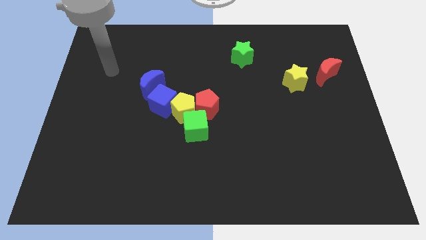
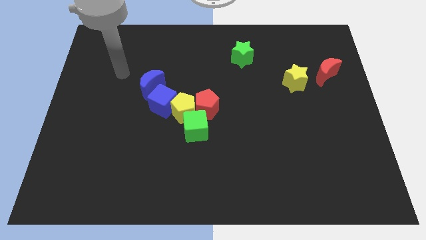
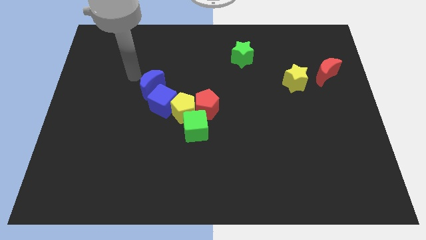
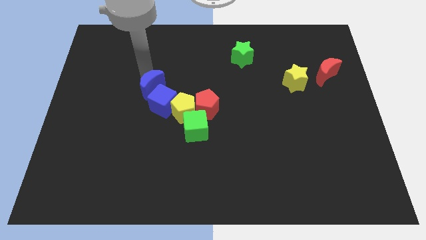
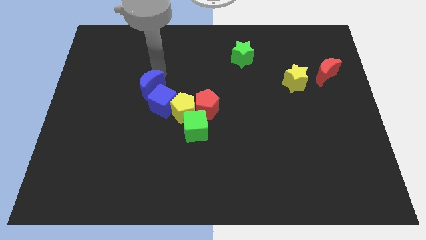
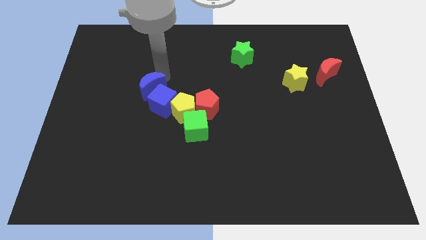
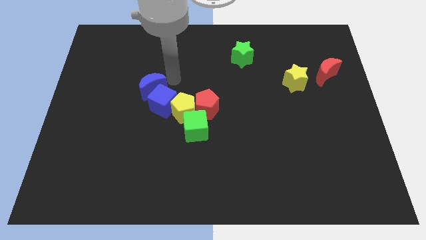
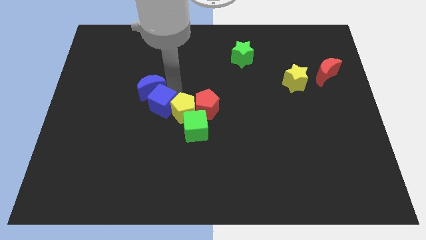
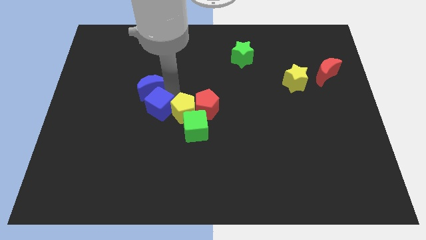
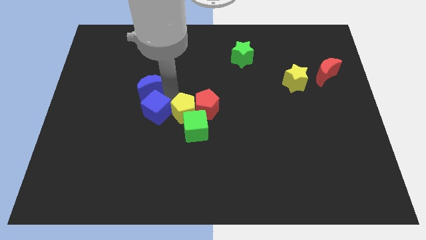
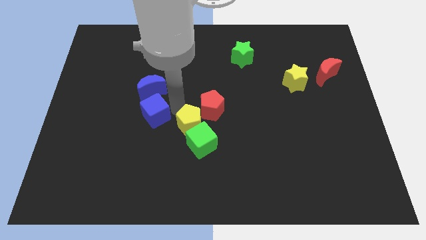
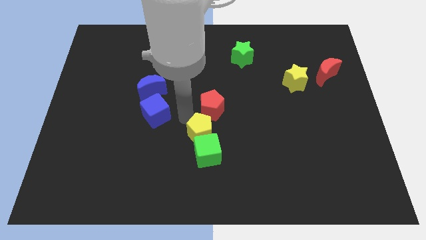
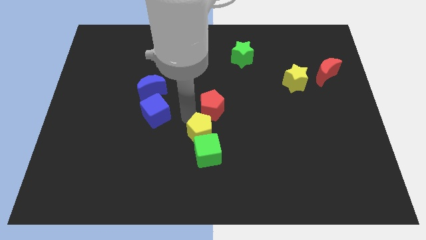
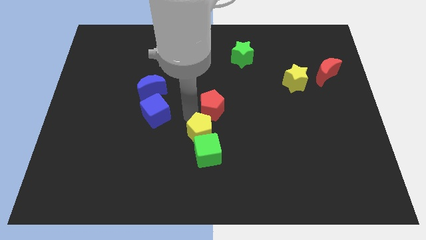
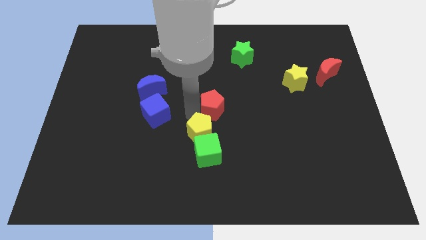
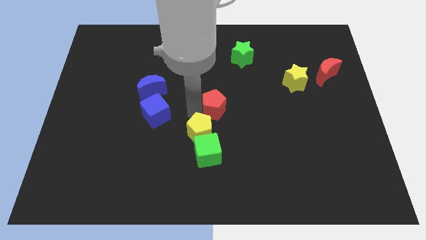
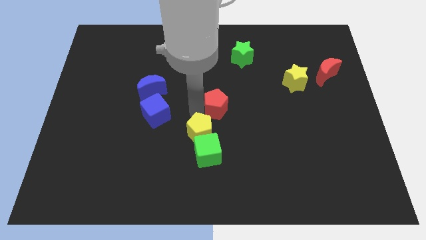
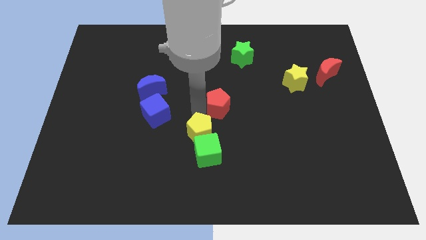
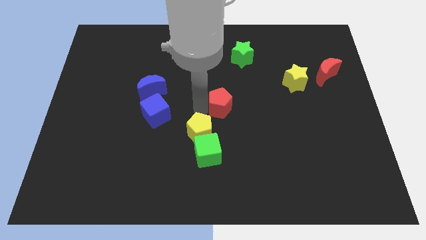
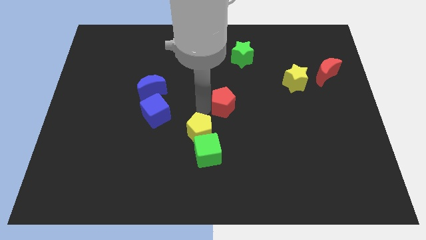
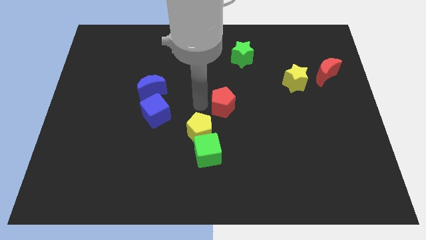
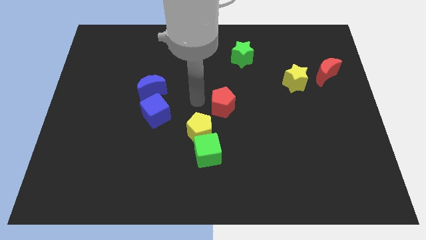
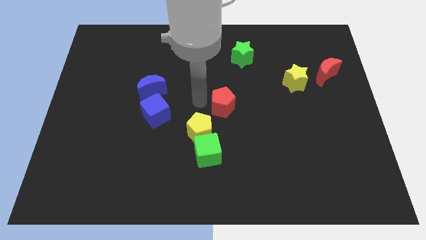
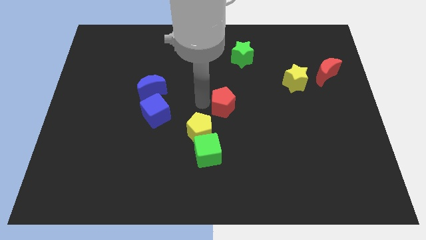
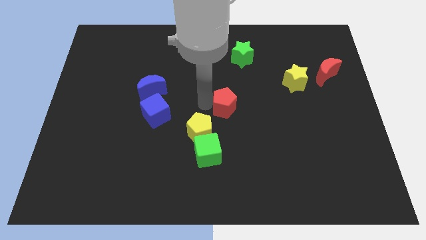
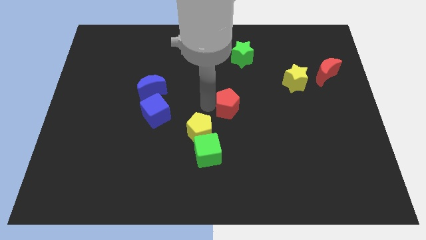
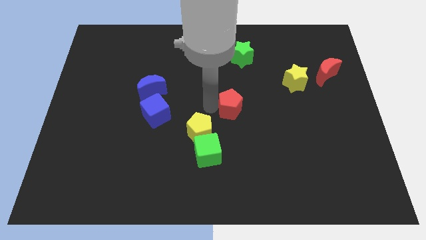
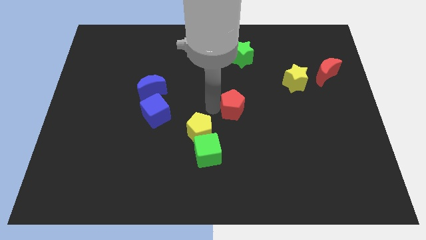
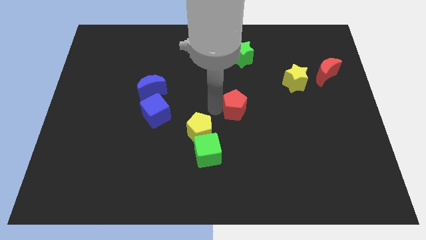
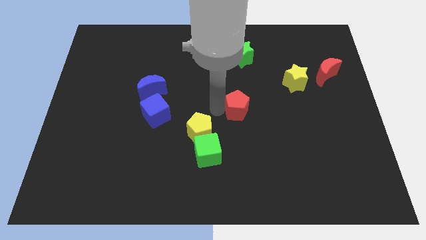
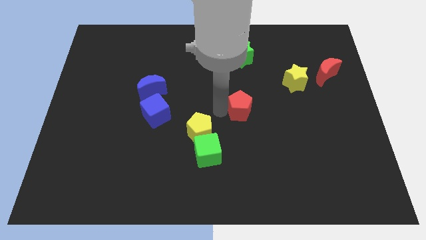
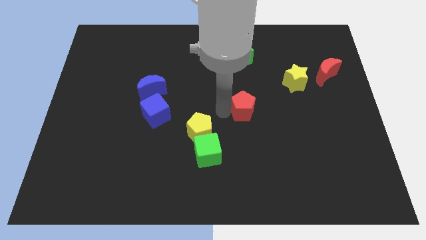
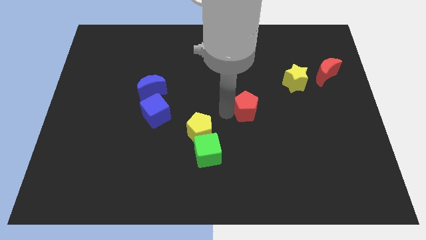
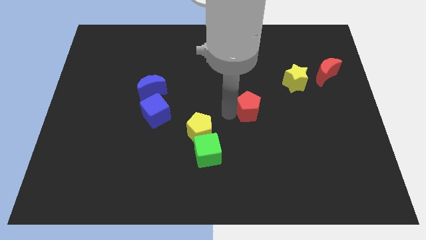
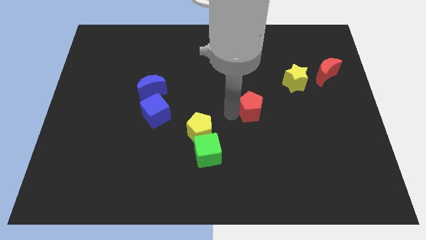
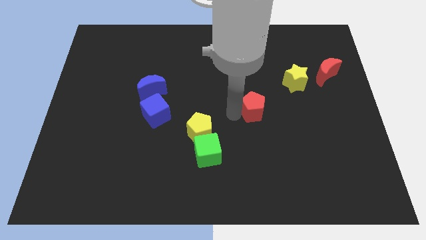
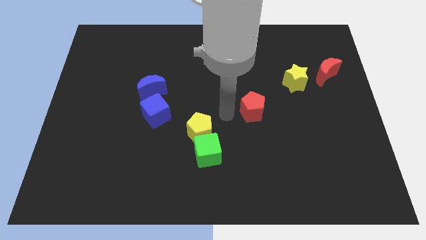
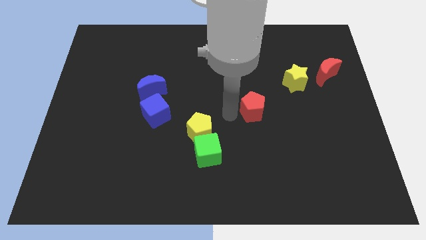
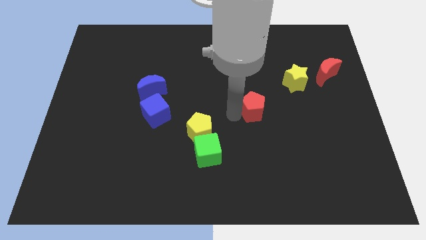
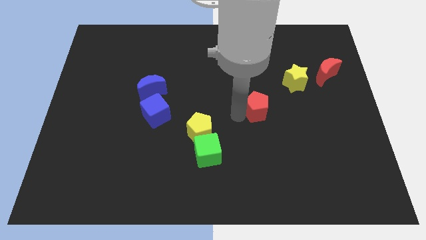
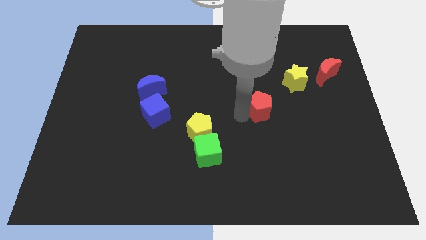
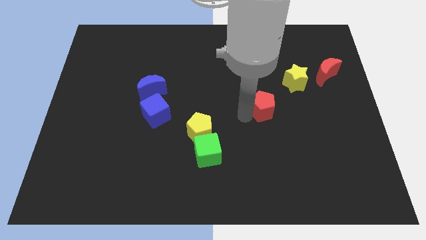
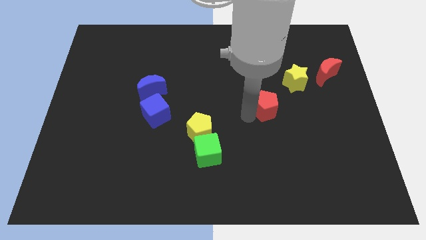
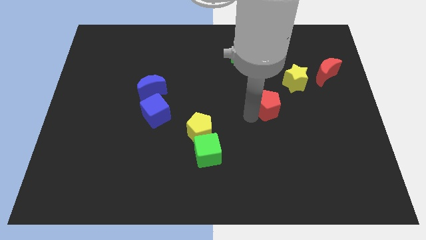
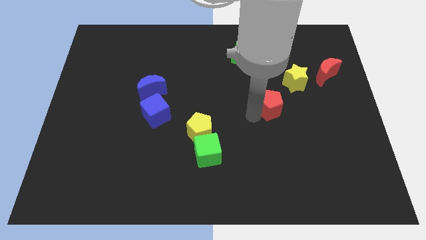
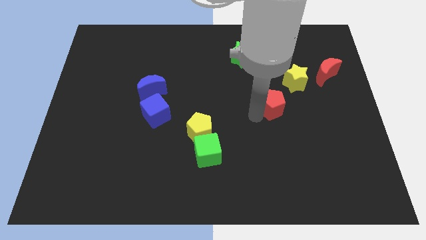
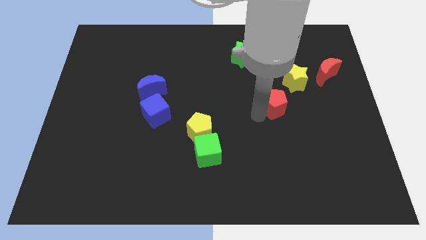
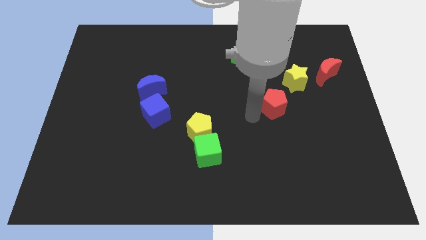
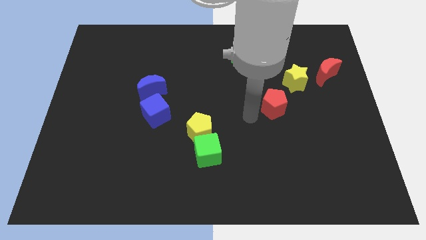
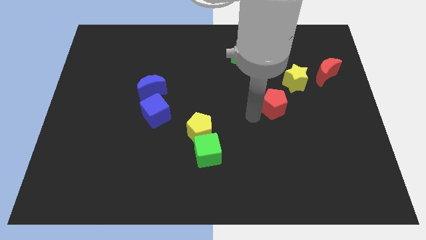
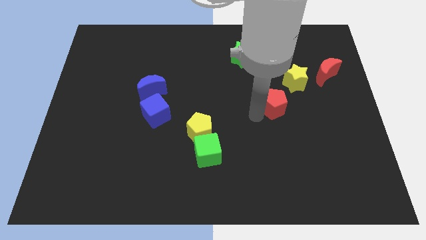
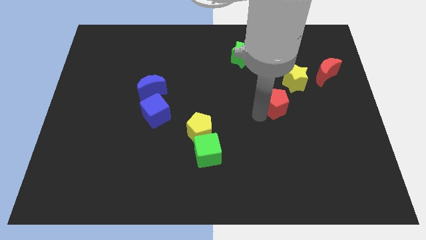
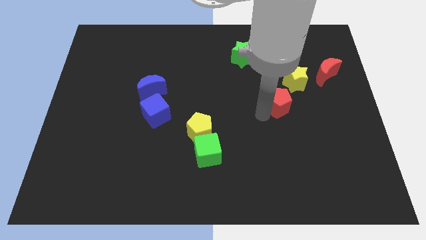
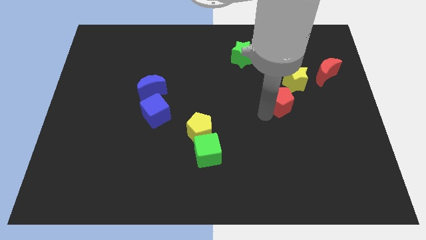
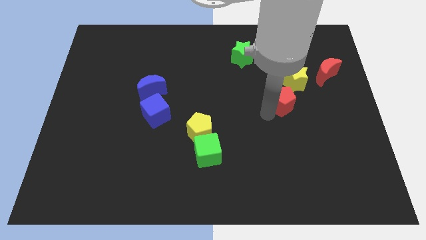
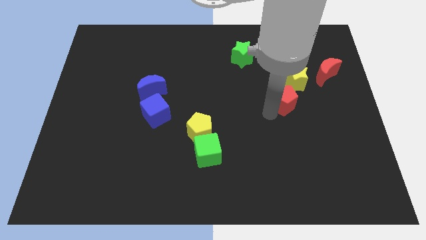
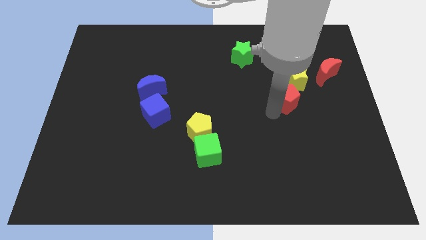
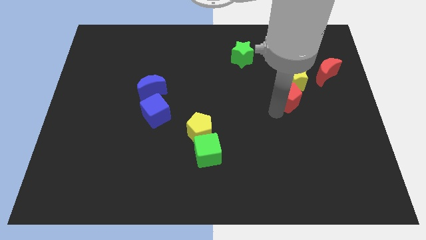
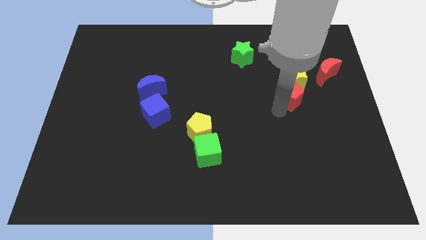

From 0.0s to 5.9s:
slide the red pentagon diagonally down and to the left of the red moon
